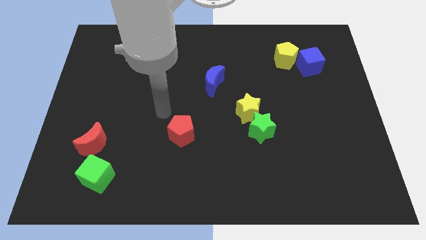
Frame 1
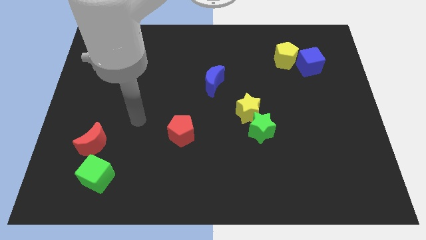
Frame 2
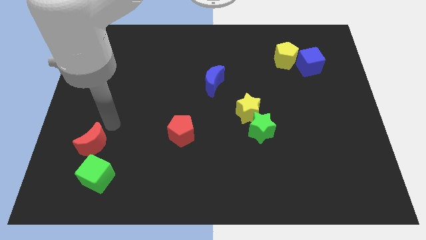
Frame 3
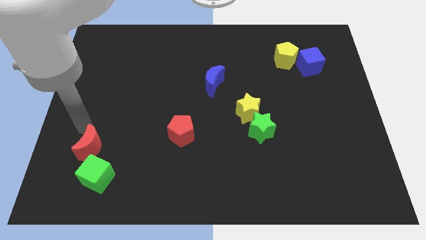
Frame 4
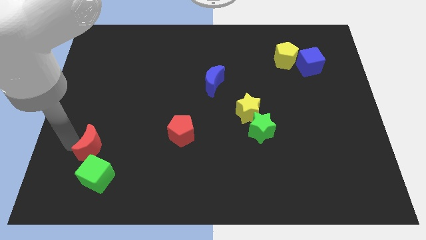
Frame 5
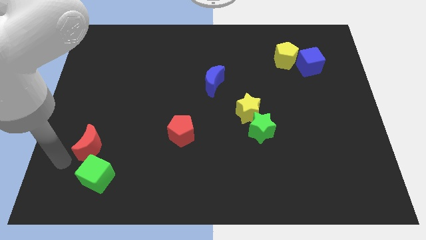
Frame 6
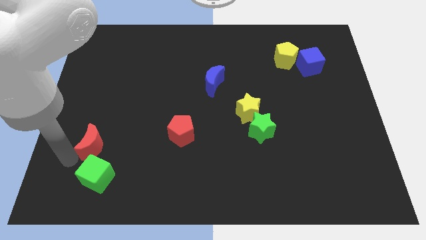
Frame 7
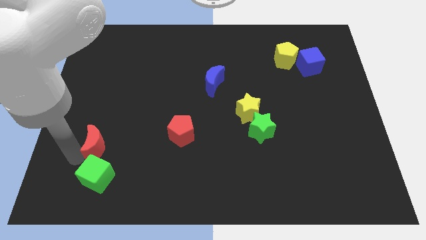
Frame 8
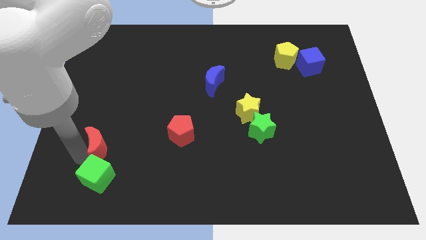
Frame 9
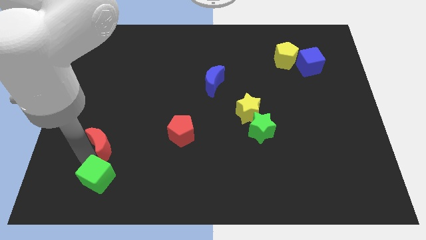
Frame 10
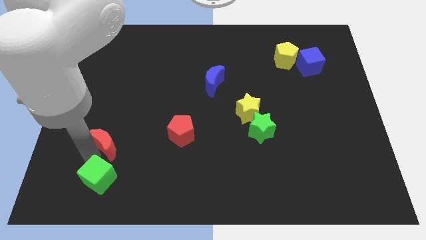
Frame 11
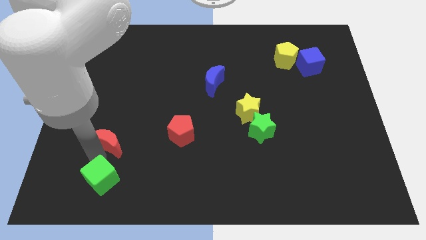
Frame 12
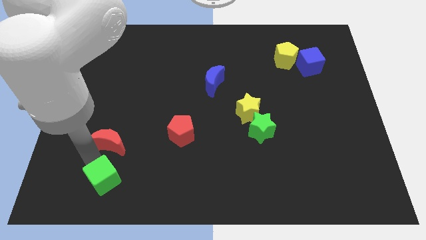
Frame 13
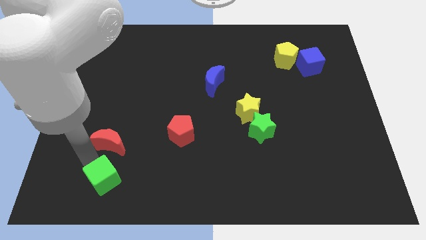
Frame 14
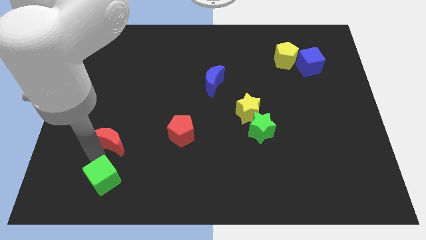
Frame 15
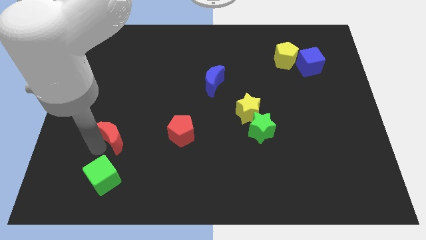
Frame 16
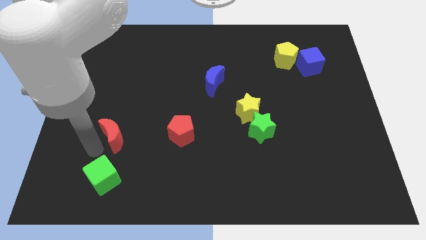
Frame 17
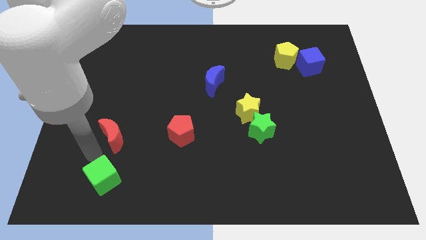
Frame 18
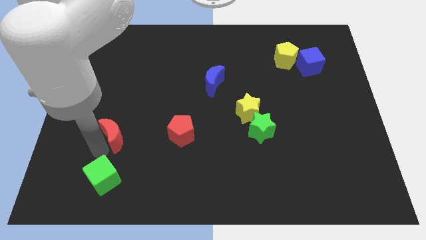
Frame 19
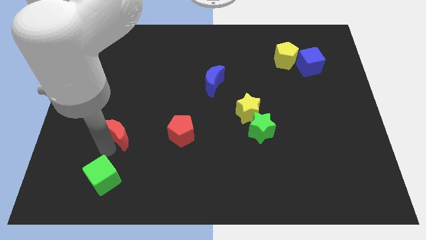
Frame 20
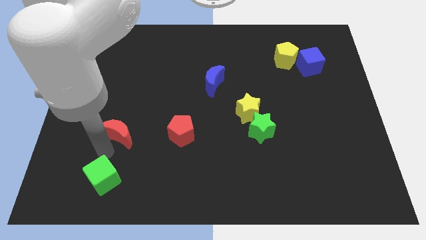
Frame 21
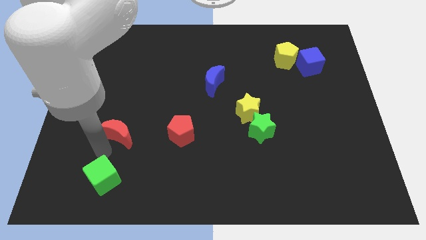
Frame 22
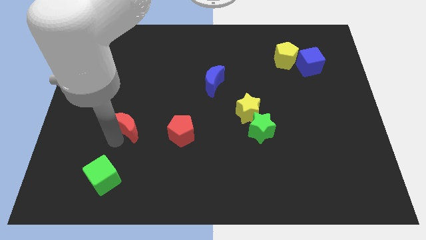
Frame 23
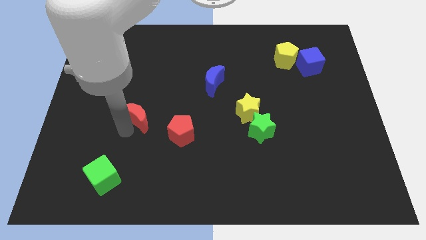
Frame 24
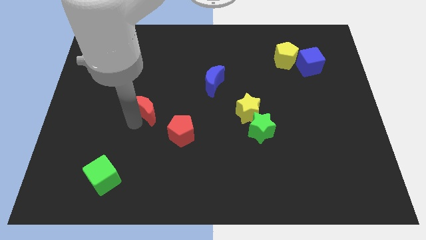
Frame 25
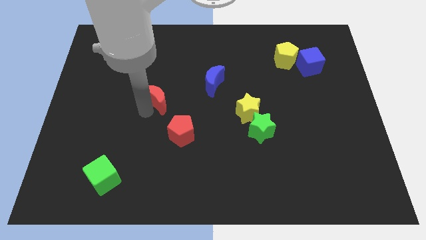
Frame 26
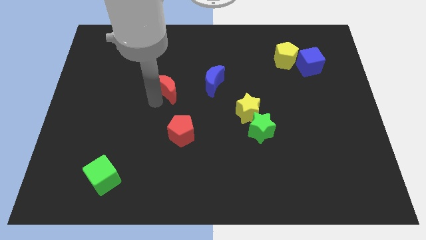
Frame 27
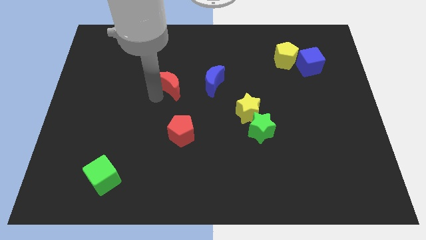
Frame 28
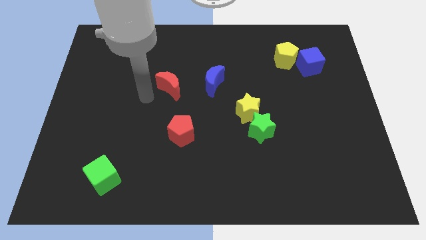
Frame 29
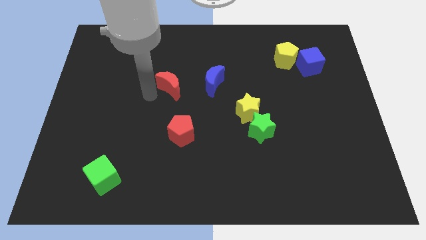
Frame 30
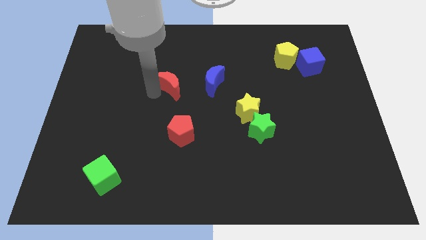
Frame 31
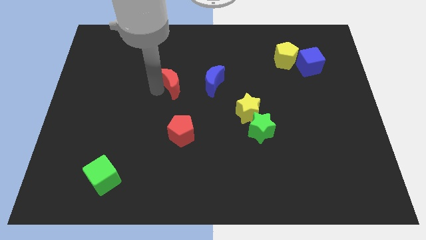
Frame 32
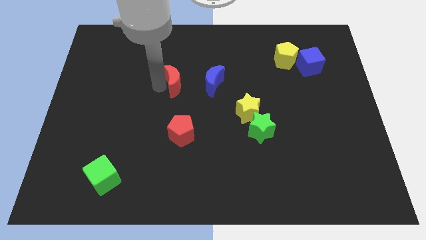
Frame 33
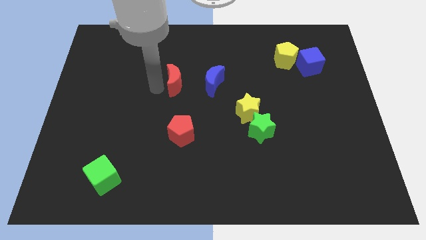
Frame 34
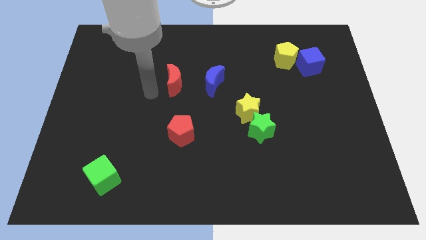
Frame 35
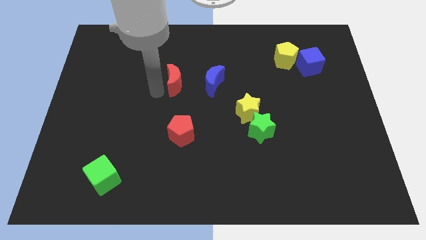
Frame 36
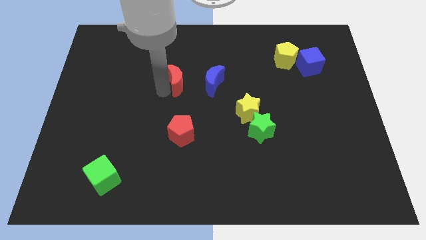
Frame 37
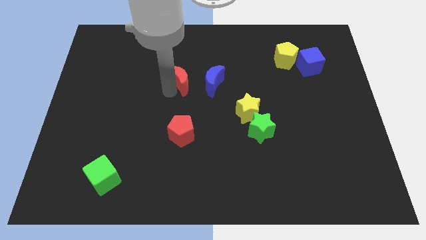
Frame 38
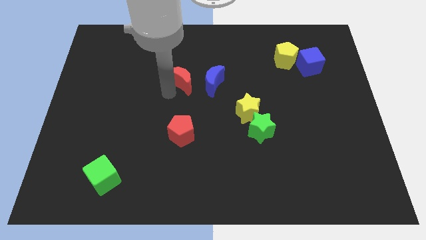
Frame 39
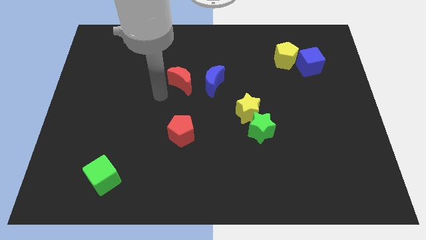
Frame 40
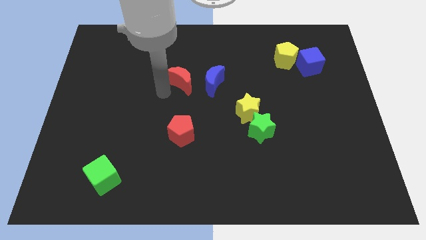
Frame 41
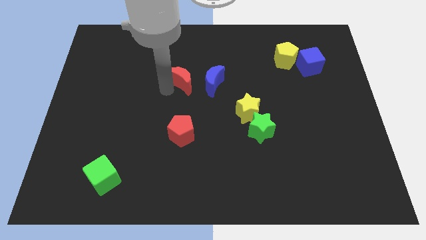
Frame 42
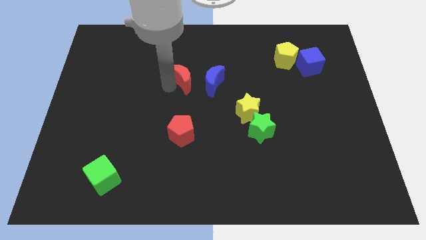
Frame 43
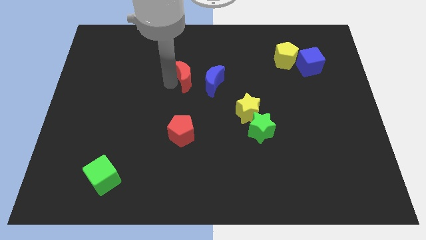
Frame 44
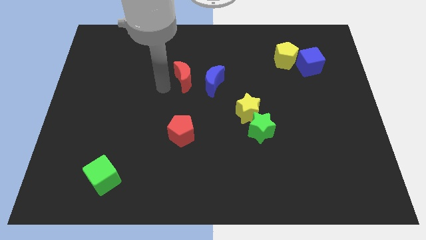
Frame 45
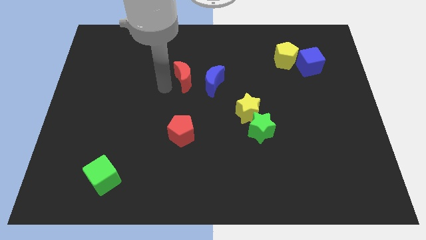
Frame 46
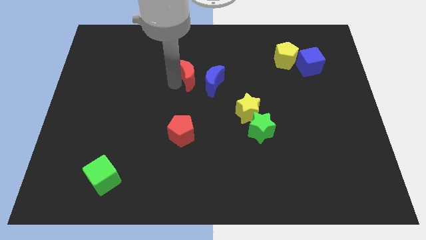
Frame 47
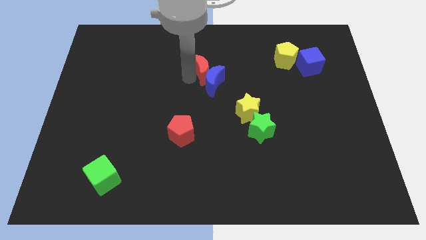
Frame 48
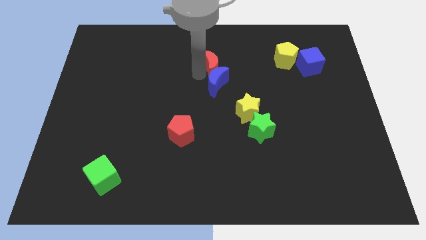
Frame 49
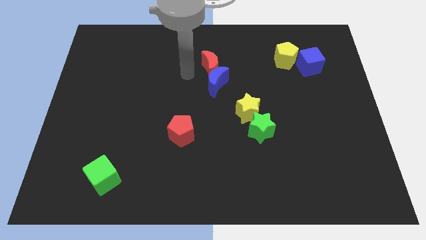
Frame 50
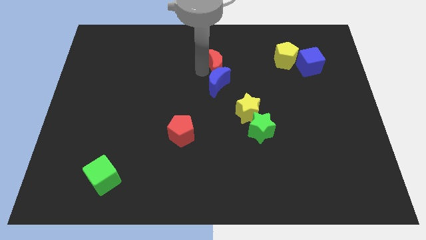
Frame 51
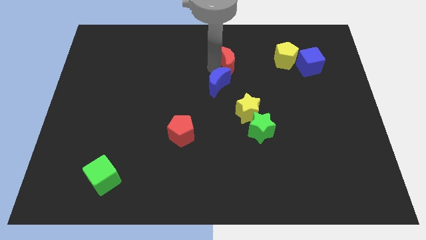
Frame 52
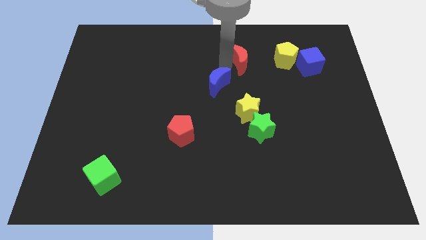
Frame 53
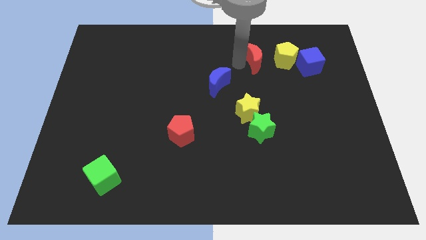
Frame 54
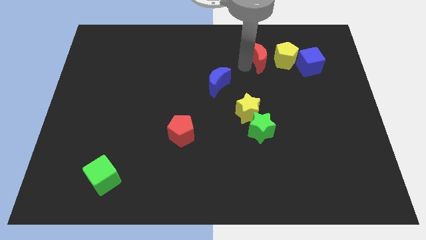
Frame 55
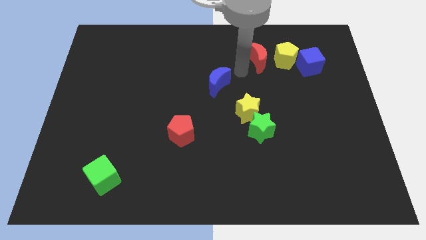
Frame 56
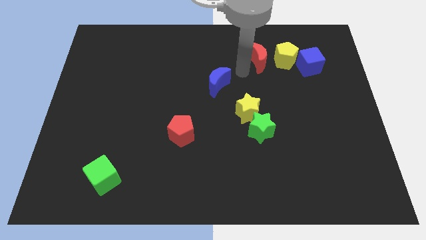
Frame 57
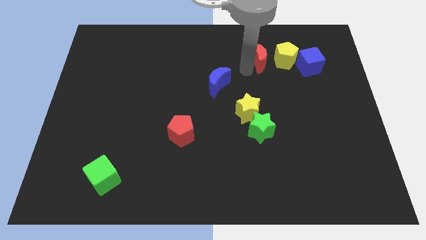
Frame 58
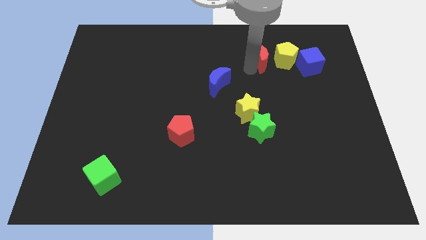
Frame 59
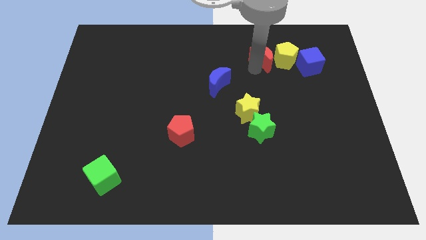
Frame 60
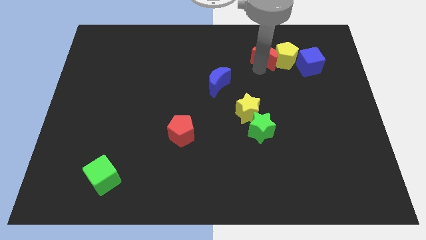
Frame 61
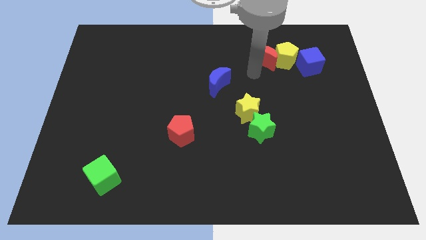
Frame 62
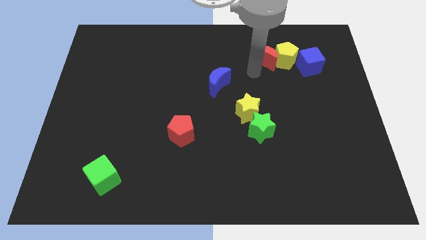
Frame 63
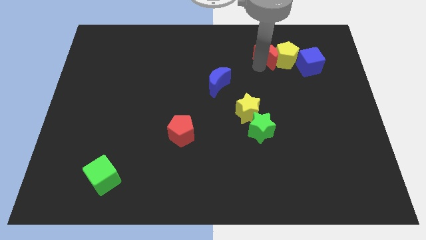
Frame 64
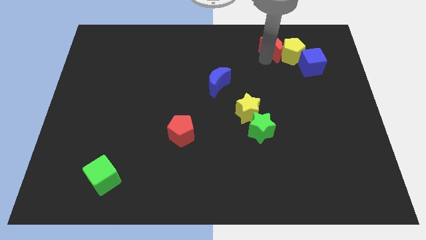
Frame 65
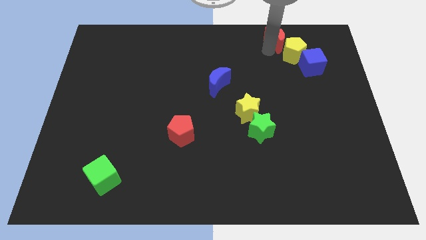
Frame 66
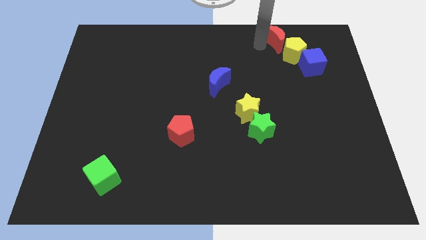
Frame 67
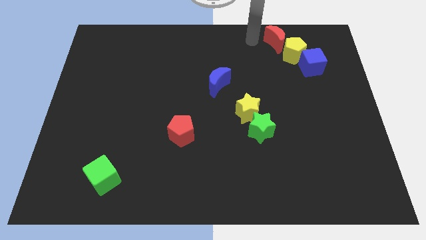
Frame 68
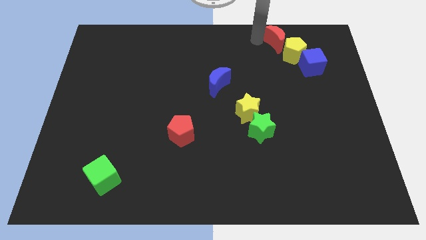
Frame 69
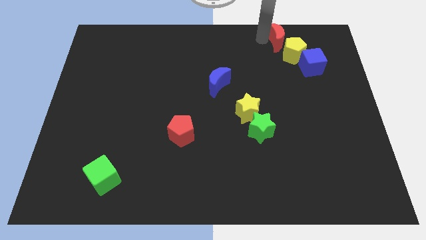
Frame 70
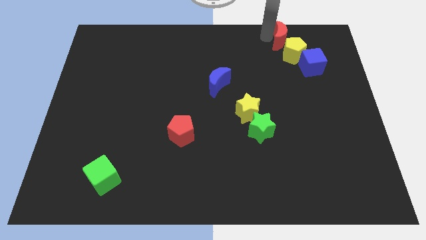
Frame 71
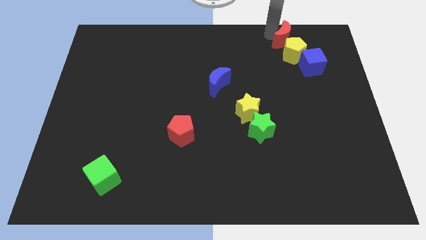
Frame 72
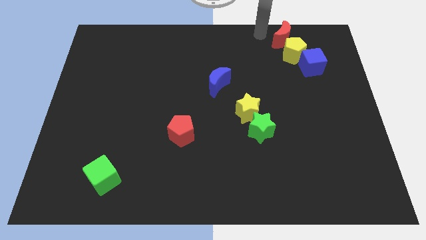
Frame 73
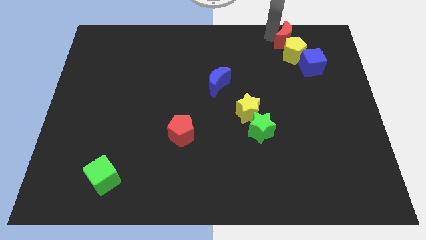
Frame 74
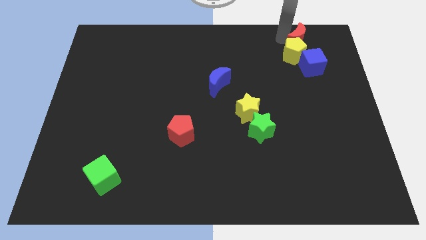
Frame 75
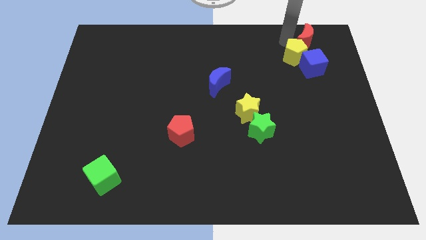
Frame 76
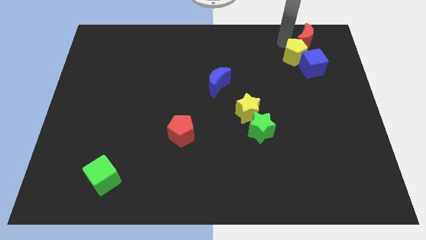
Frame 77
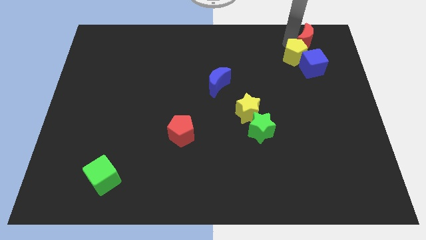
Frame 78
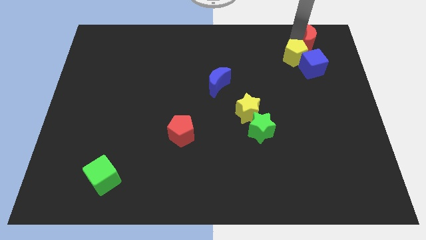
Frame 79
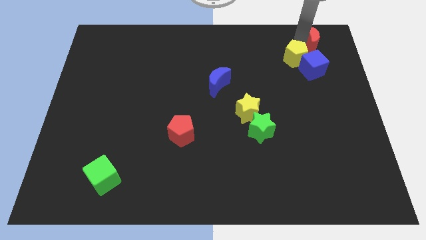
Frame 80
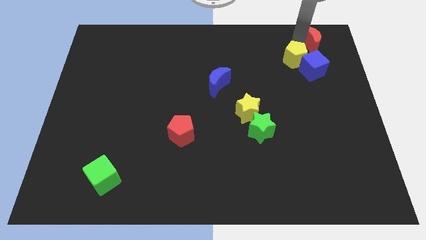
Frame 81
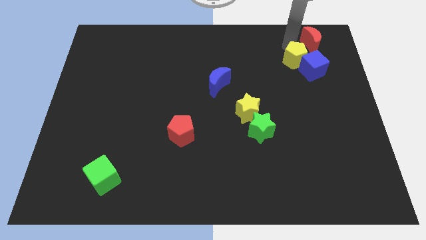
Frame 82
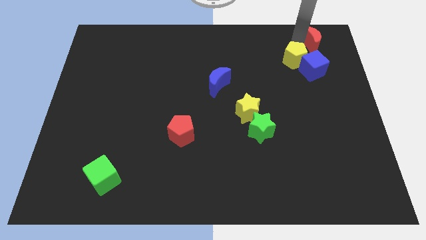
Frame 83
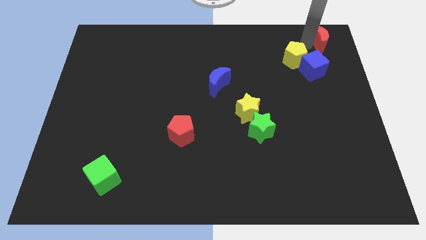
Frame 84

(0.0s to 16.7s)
put the red moon to the top right corner
